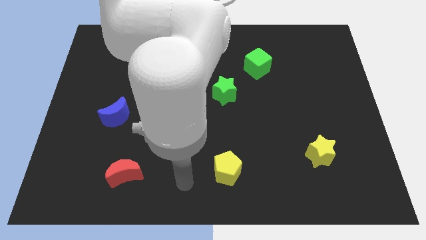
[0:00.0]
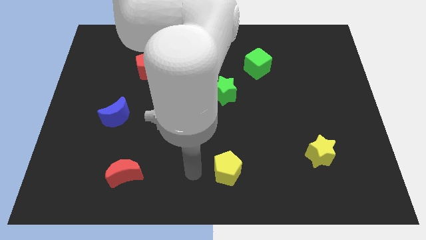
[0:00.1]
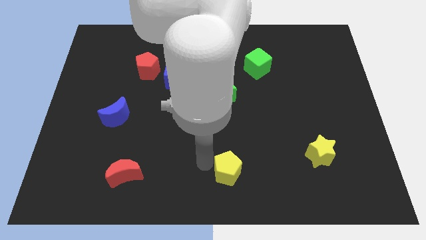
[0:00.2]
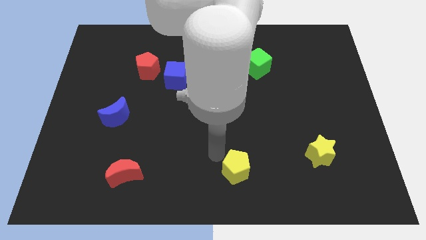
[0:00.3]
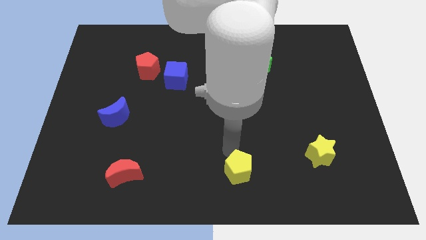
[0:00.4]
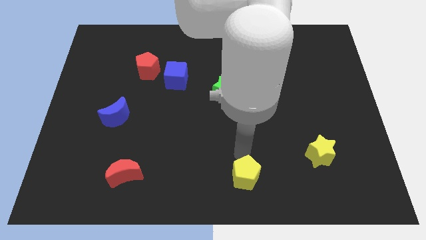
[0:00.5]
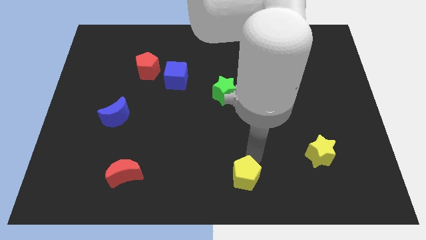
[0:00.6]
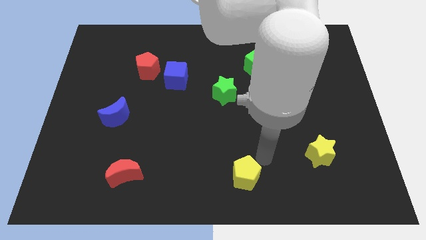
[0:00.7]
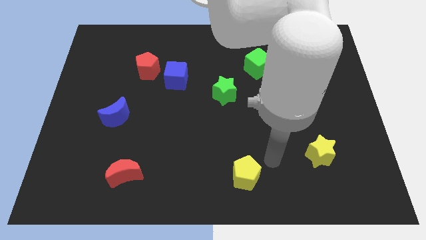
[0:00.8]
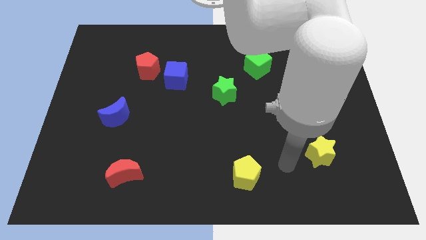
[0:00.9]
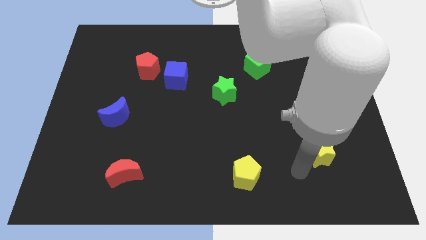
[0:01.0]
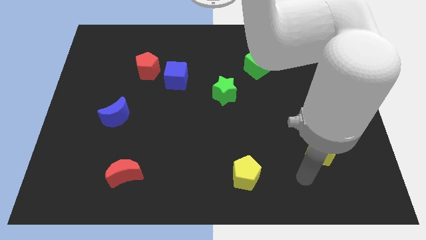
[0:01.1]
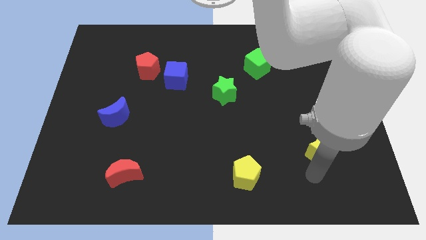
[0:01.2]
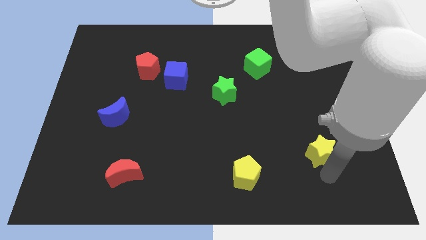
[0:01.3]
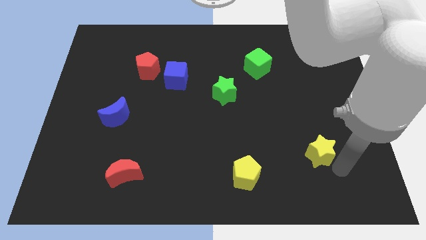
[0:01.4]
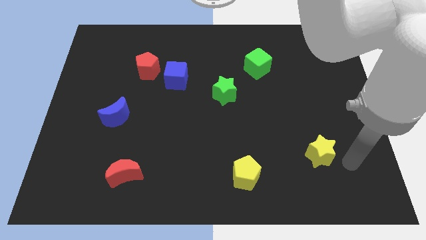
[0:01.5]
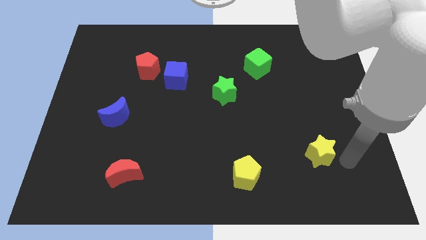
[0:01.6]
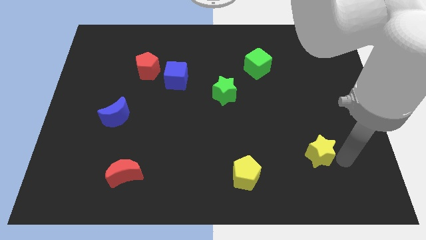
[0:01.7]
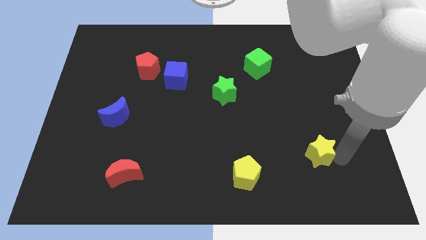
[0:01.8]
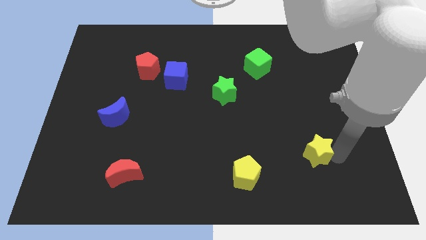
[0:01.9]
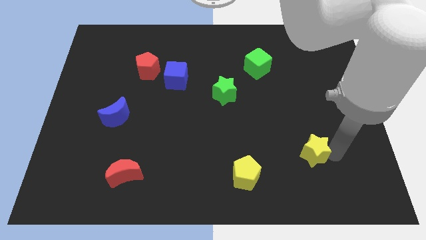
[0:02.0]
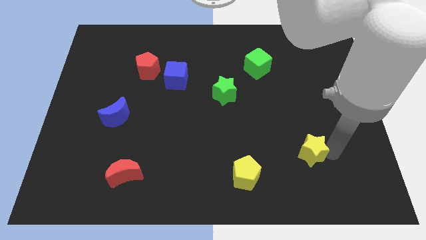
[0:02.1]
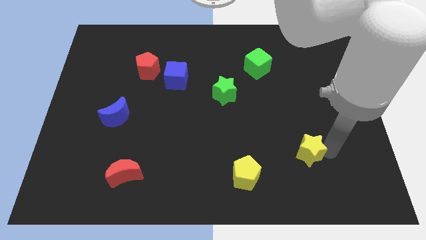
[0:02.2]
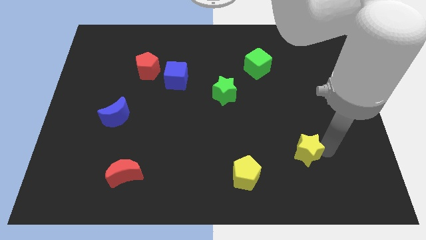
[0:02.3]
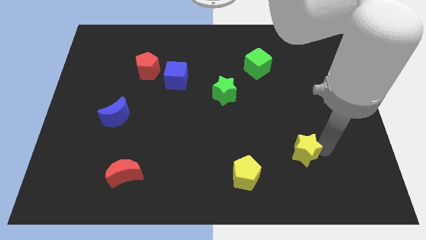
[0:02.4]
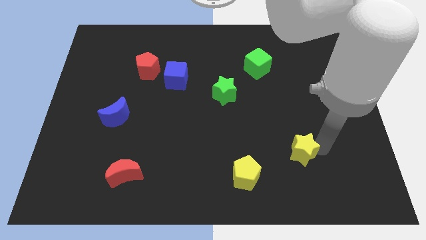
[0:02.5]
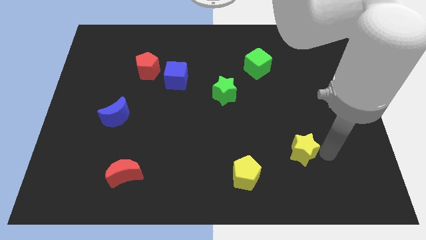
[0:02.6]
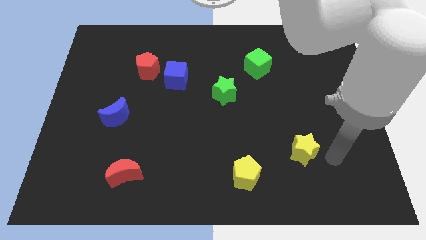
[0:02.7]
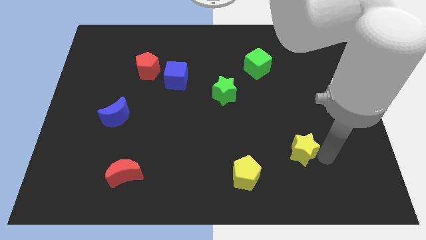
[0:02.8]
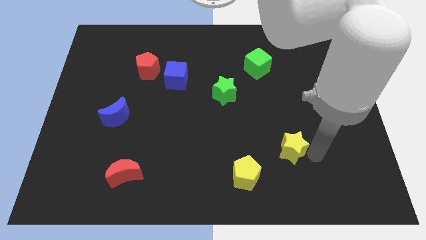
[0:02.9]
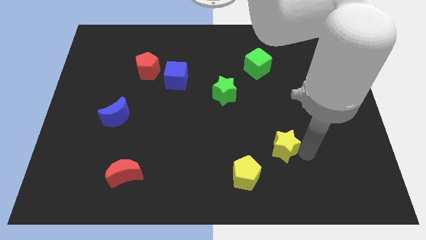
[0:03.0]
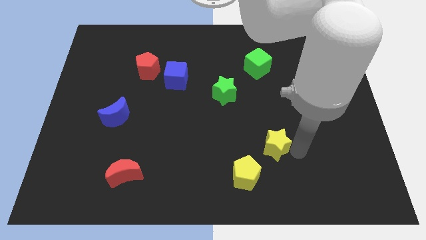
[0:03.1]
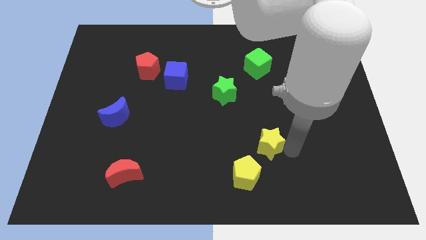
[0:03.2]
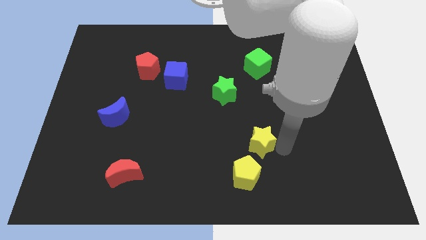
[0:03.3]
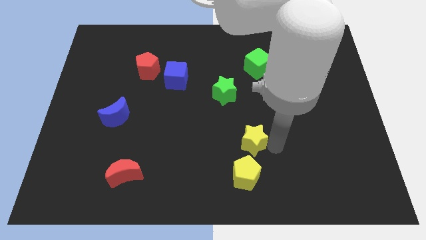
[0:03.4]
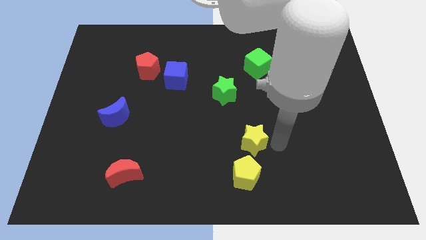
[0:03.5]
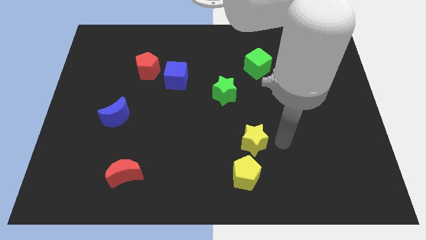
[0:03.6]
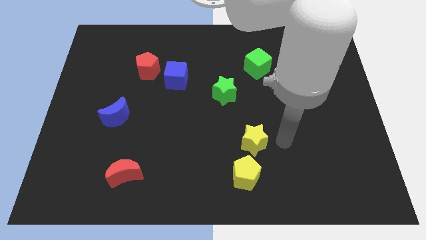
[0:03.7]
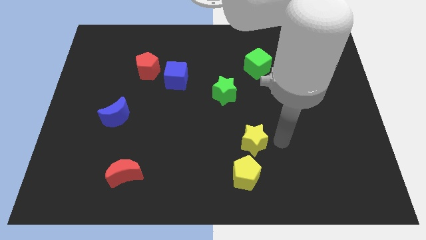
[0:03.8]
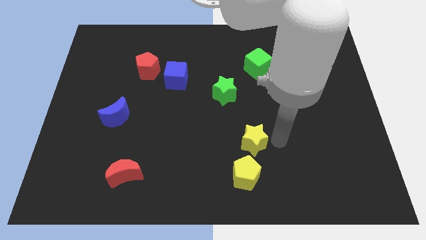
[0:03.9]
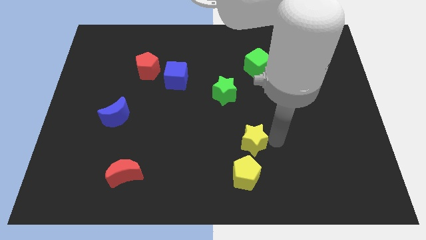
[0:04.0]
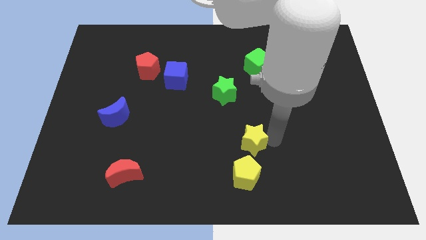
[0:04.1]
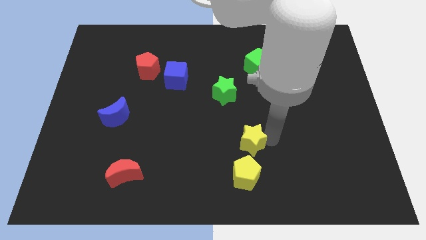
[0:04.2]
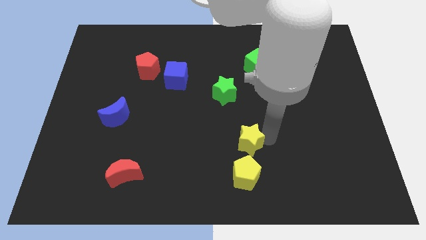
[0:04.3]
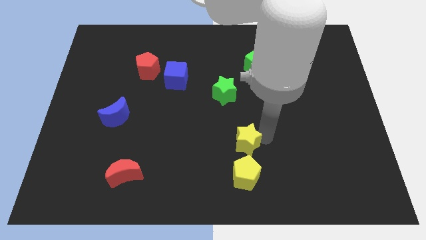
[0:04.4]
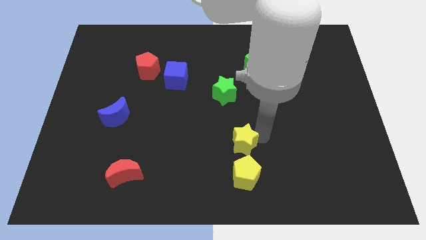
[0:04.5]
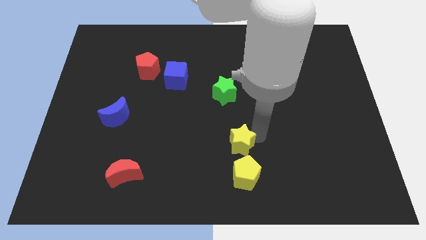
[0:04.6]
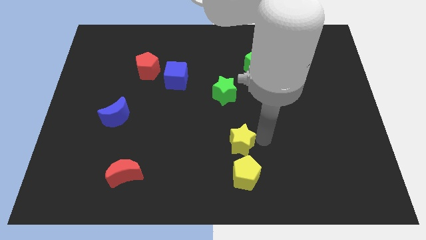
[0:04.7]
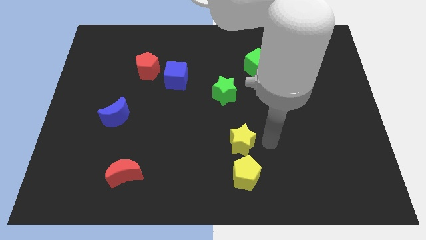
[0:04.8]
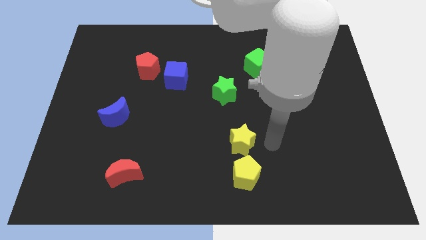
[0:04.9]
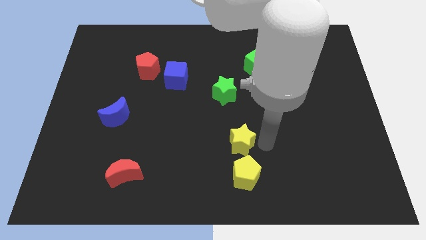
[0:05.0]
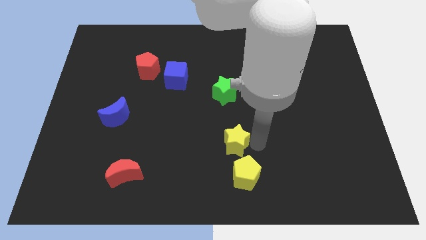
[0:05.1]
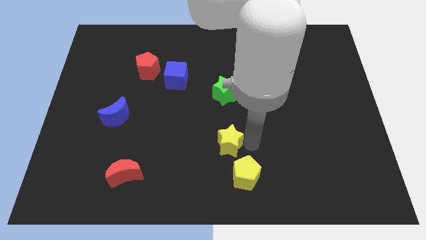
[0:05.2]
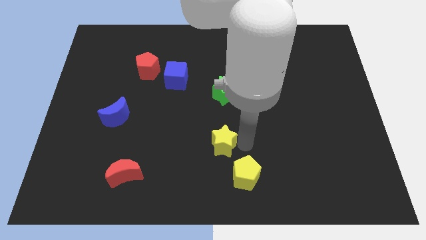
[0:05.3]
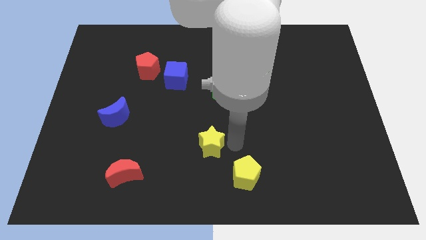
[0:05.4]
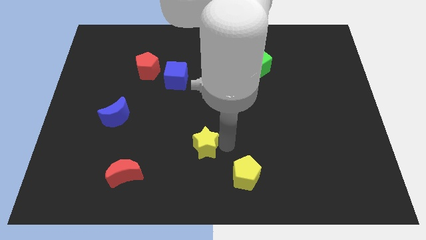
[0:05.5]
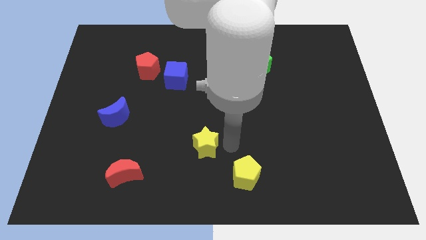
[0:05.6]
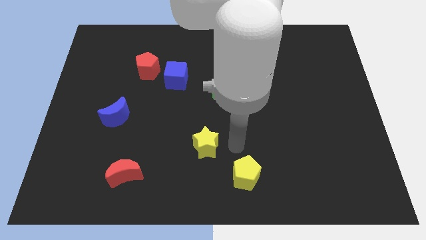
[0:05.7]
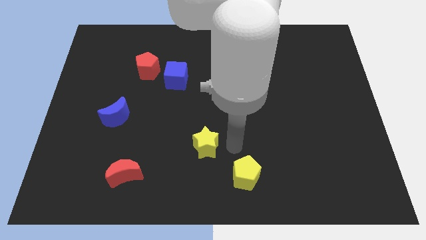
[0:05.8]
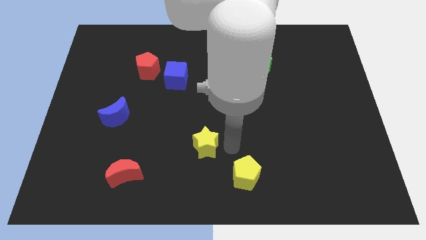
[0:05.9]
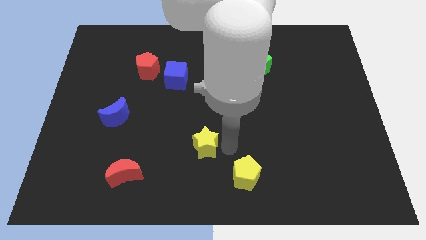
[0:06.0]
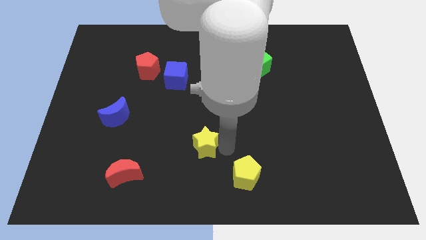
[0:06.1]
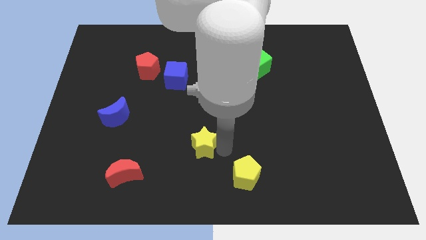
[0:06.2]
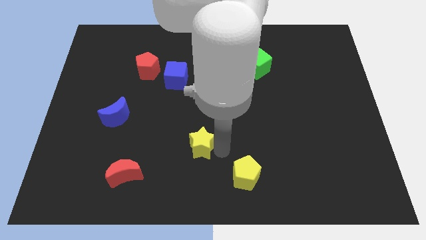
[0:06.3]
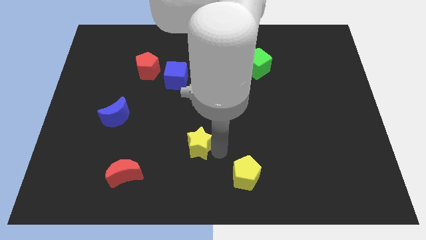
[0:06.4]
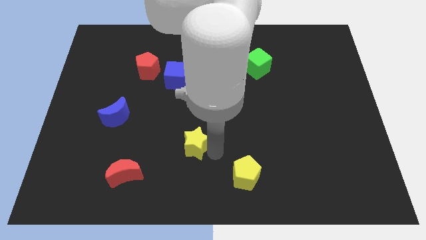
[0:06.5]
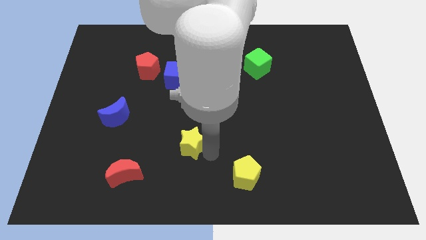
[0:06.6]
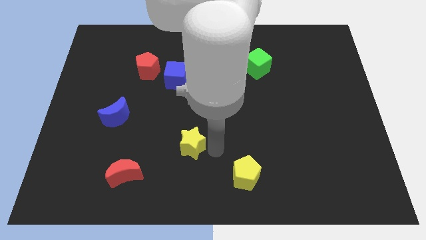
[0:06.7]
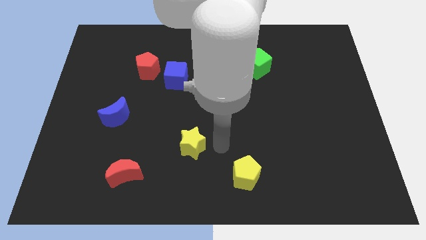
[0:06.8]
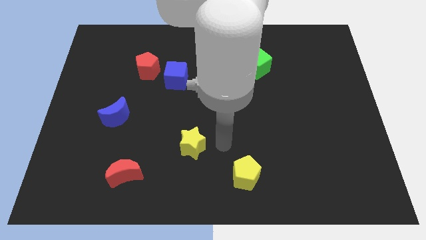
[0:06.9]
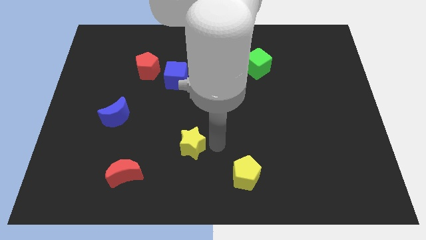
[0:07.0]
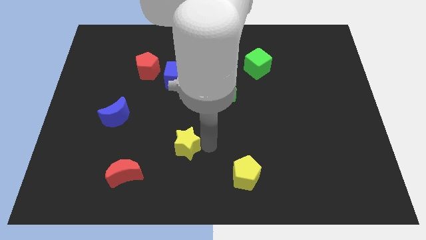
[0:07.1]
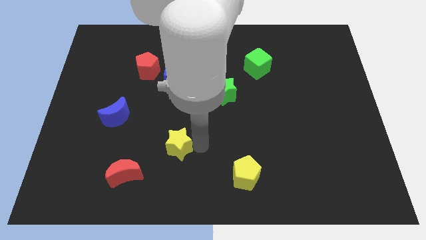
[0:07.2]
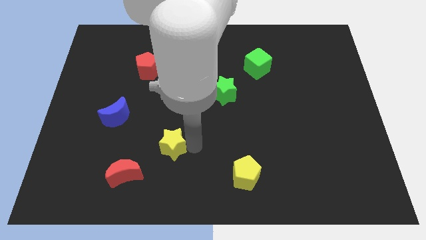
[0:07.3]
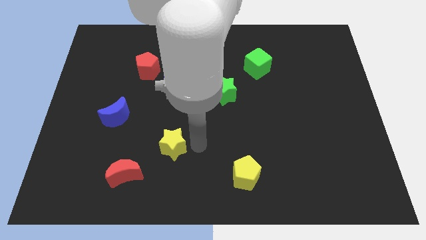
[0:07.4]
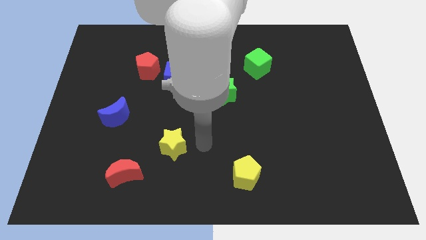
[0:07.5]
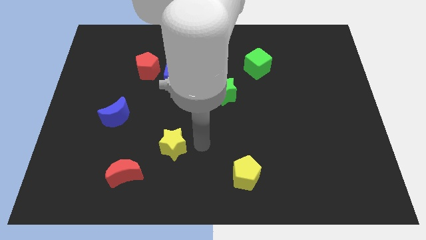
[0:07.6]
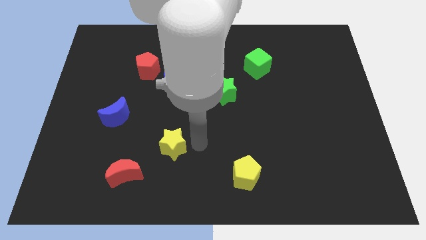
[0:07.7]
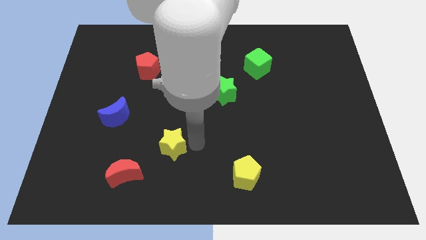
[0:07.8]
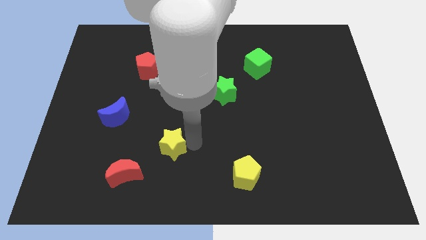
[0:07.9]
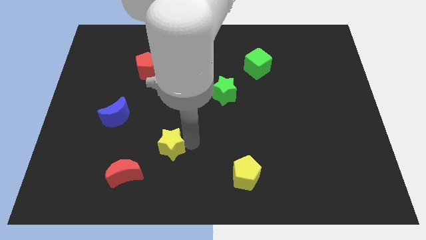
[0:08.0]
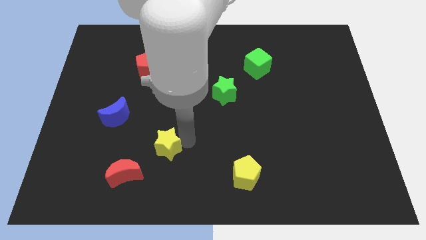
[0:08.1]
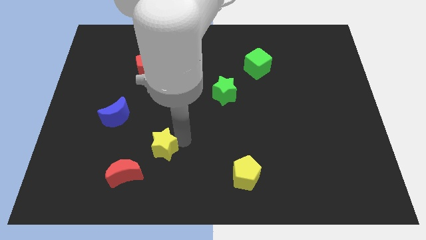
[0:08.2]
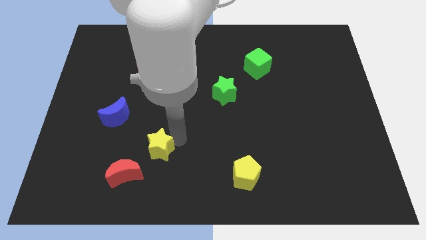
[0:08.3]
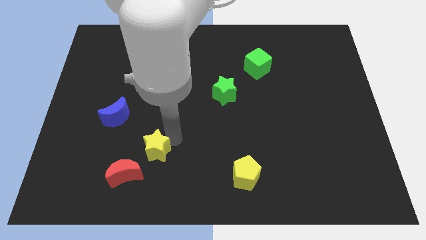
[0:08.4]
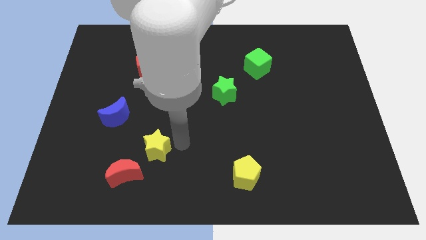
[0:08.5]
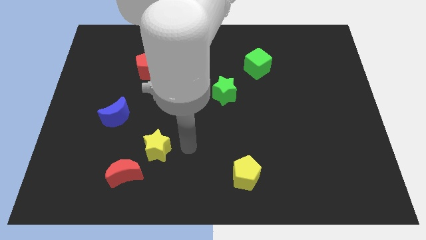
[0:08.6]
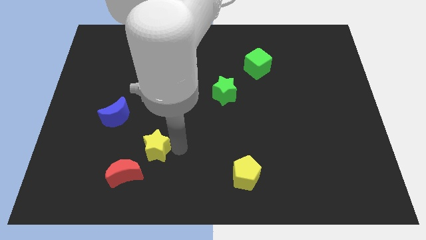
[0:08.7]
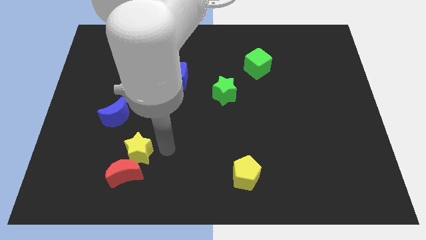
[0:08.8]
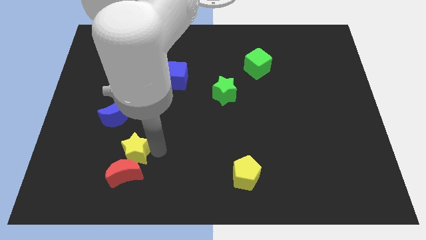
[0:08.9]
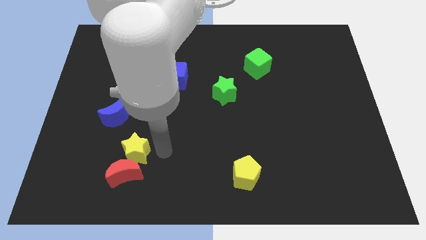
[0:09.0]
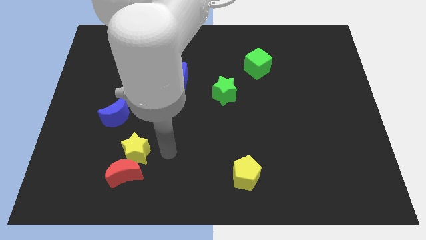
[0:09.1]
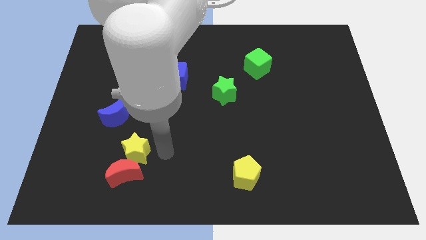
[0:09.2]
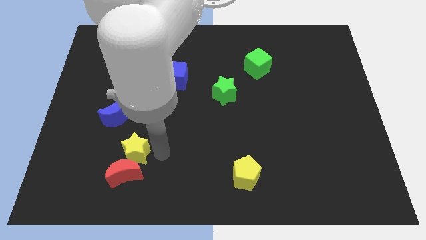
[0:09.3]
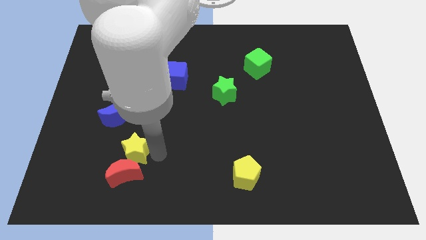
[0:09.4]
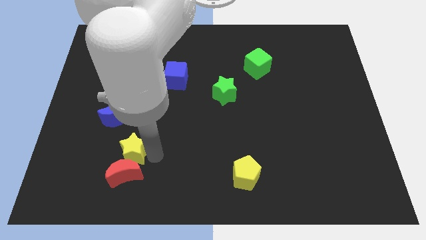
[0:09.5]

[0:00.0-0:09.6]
move the yellow star to the top left of the red moon
